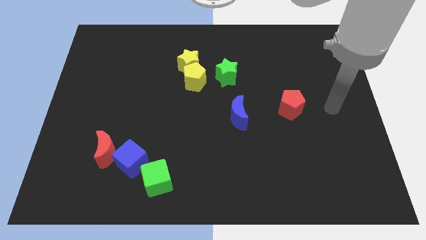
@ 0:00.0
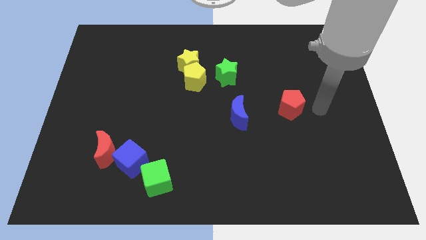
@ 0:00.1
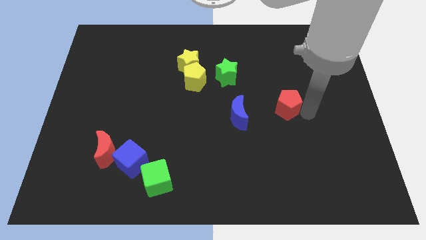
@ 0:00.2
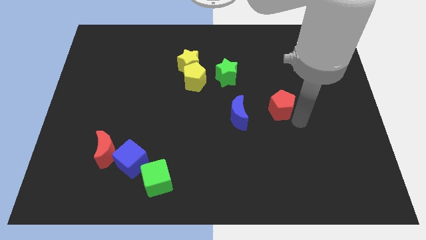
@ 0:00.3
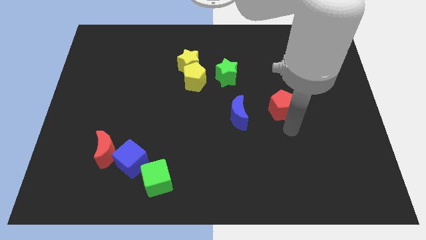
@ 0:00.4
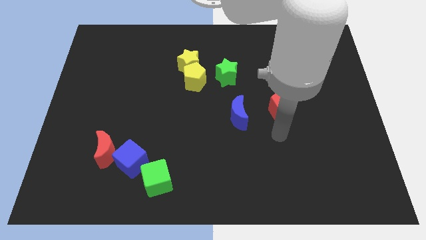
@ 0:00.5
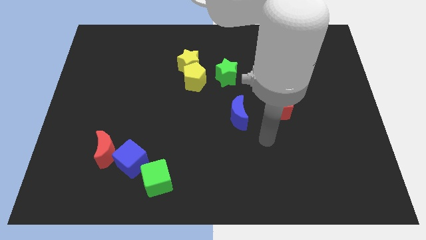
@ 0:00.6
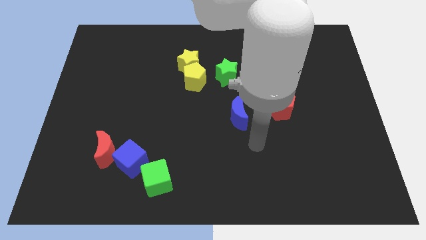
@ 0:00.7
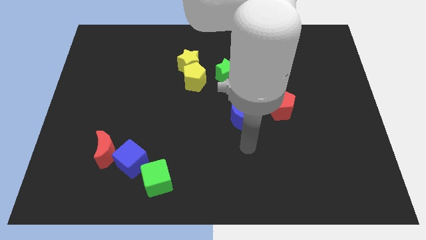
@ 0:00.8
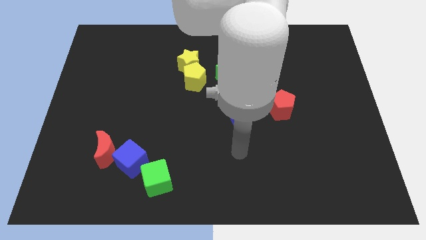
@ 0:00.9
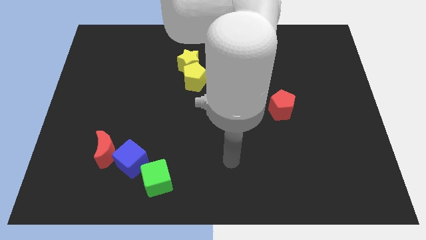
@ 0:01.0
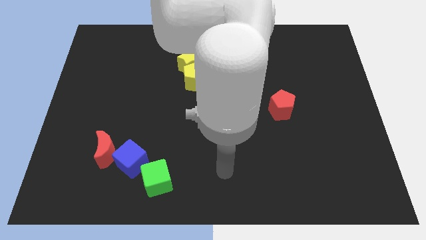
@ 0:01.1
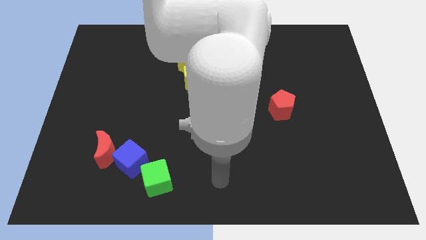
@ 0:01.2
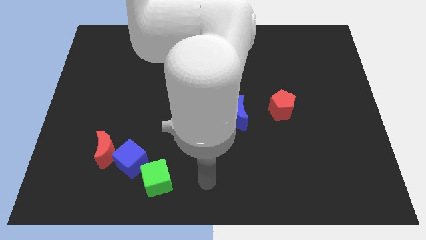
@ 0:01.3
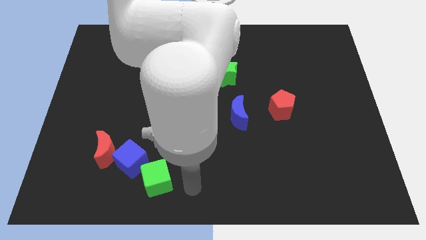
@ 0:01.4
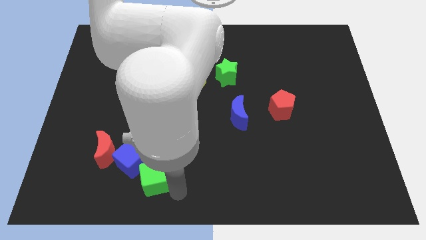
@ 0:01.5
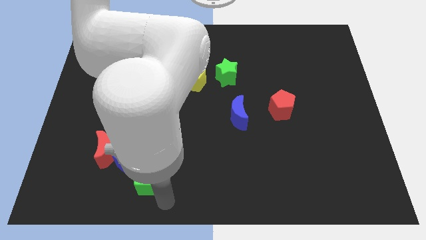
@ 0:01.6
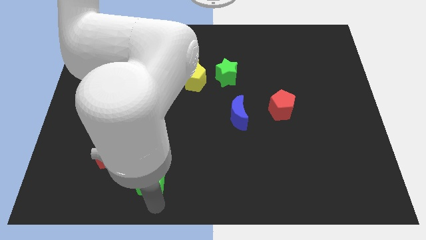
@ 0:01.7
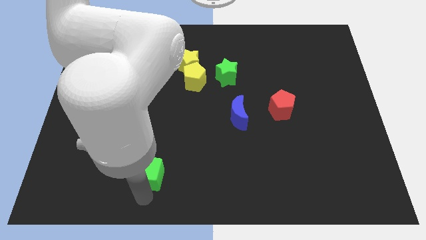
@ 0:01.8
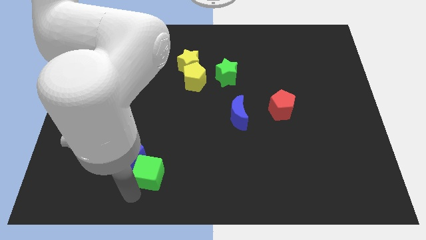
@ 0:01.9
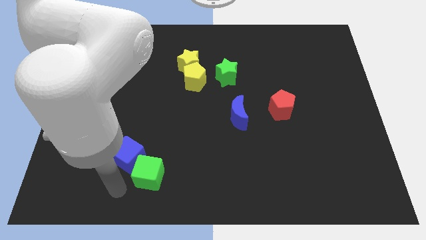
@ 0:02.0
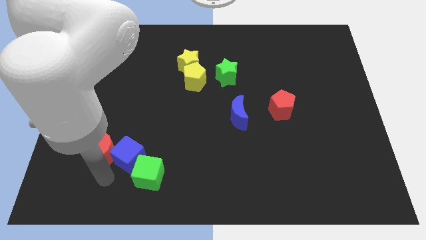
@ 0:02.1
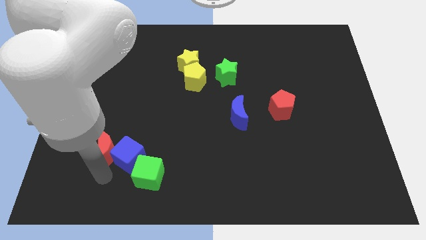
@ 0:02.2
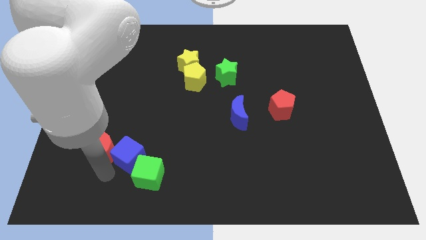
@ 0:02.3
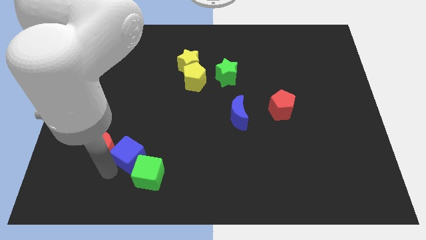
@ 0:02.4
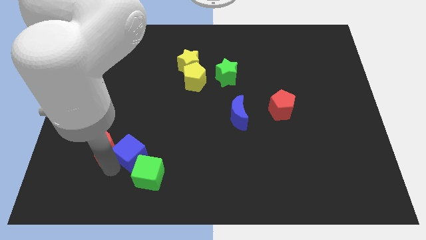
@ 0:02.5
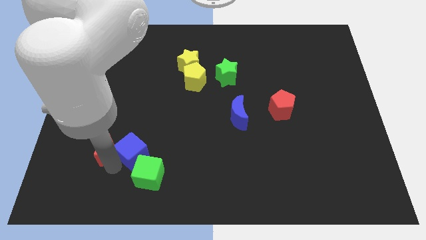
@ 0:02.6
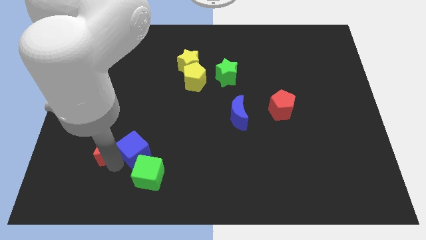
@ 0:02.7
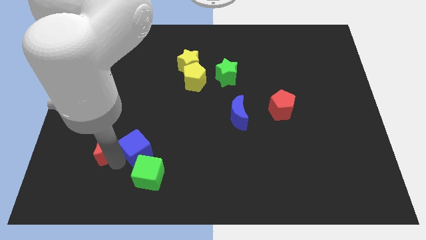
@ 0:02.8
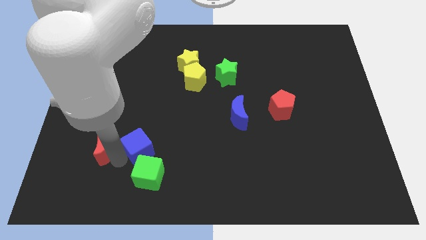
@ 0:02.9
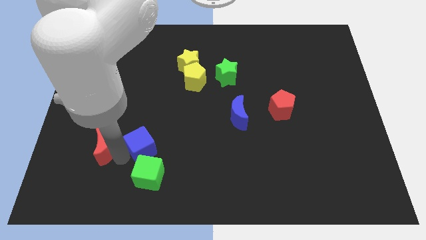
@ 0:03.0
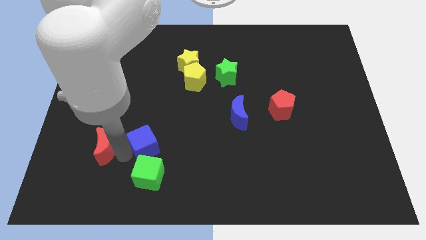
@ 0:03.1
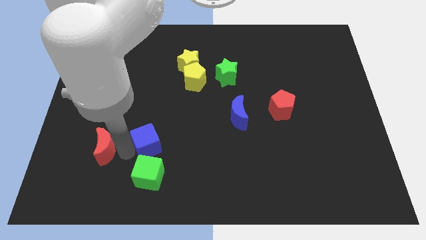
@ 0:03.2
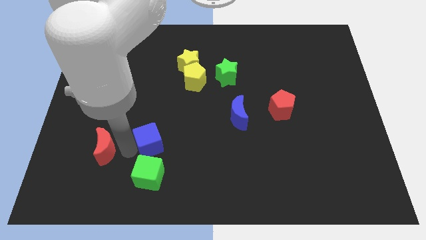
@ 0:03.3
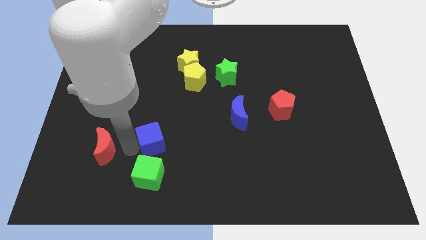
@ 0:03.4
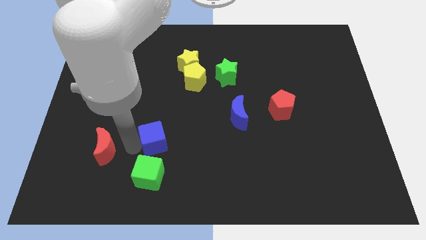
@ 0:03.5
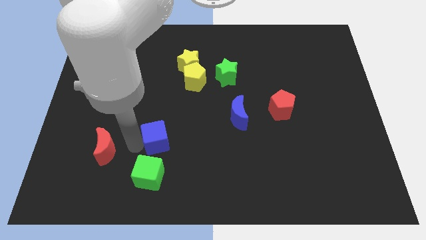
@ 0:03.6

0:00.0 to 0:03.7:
slightly move the blue cube upwards and then right

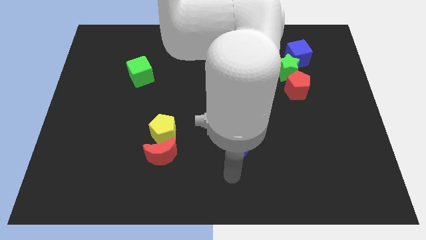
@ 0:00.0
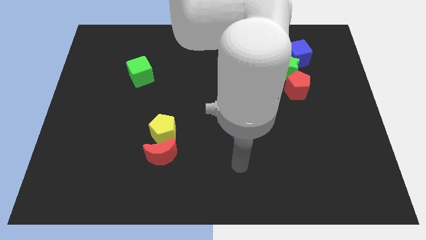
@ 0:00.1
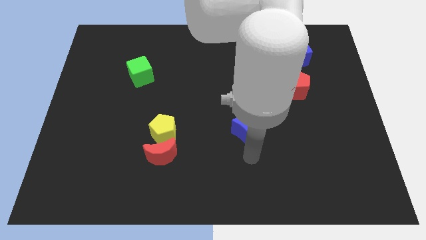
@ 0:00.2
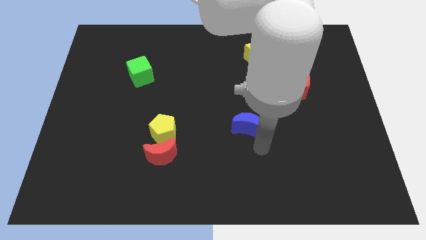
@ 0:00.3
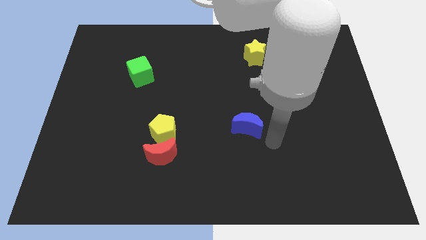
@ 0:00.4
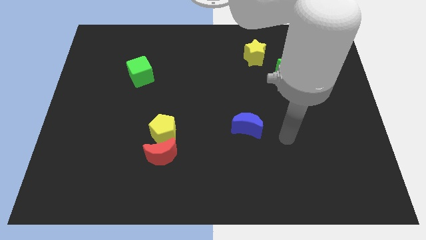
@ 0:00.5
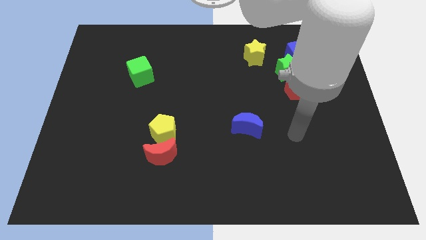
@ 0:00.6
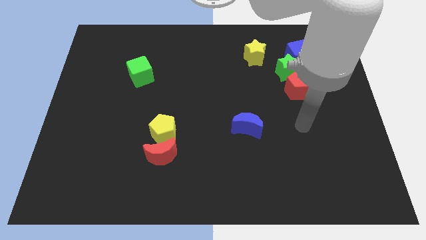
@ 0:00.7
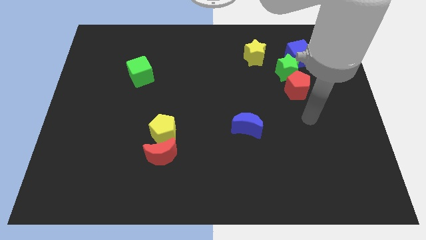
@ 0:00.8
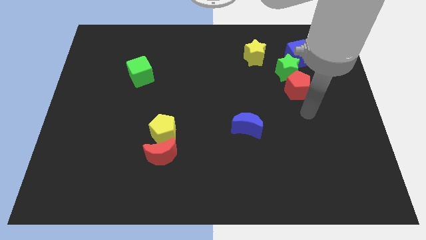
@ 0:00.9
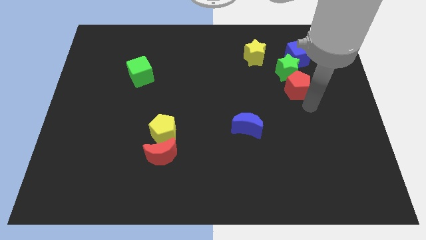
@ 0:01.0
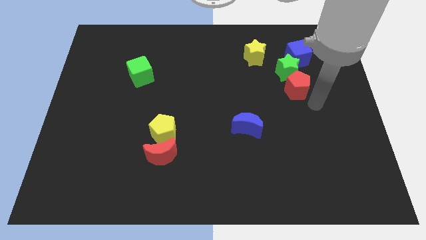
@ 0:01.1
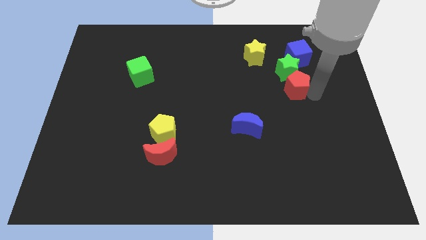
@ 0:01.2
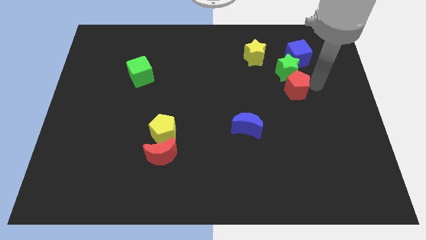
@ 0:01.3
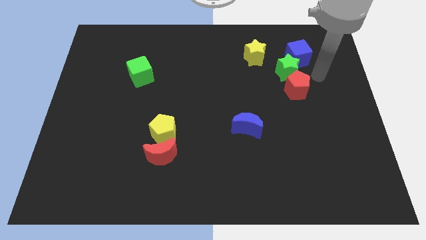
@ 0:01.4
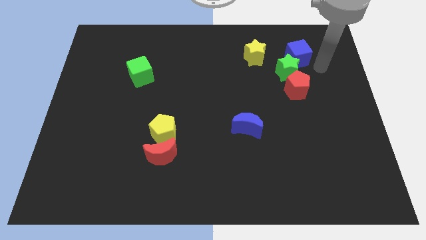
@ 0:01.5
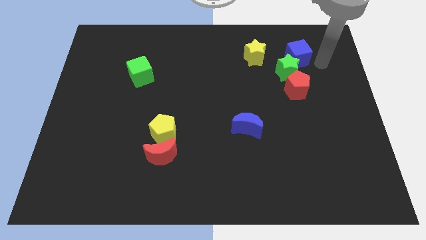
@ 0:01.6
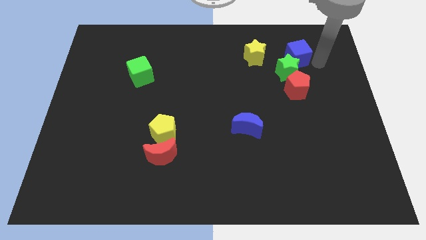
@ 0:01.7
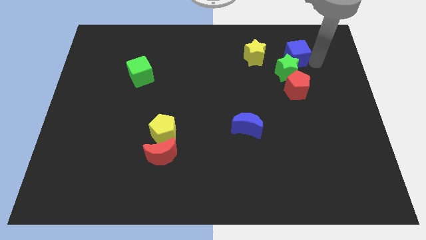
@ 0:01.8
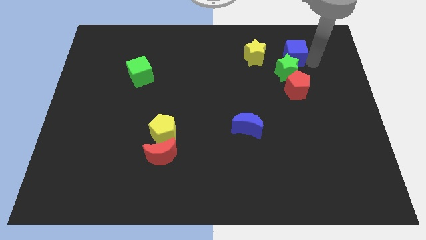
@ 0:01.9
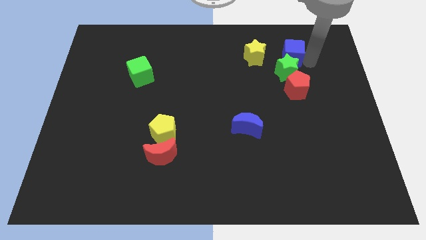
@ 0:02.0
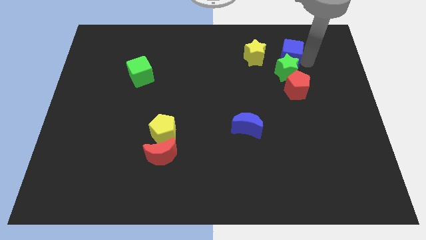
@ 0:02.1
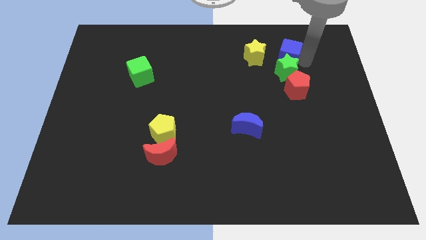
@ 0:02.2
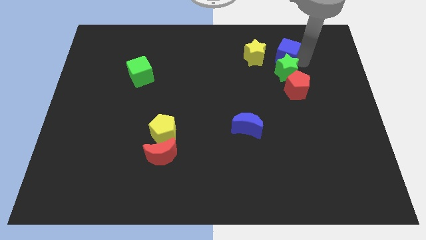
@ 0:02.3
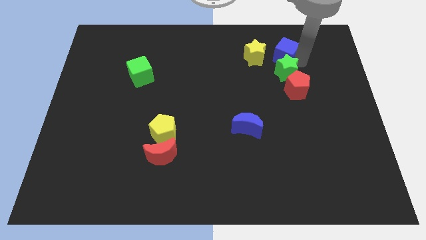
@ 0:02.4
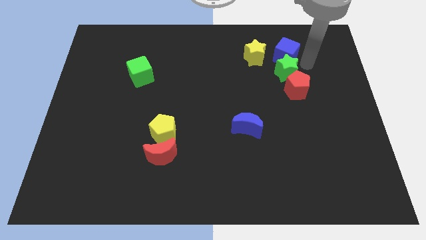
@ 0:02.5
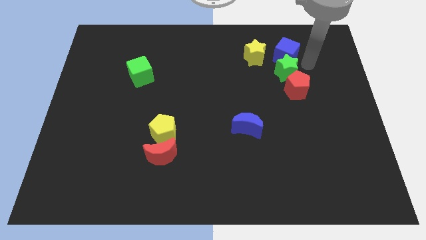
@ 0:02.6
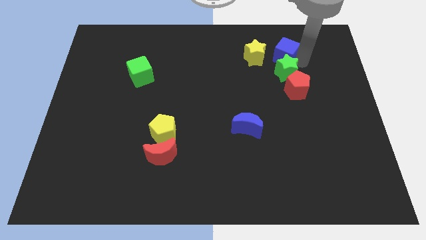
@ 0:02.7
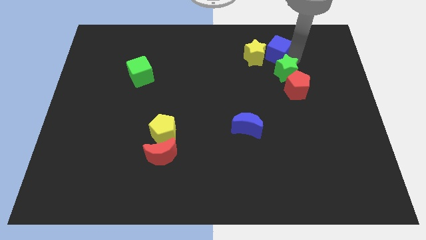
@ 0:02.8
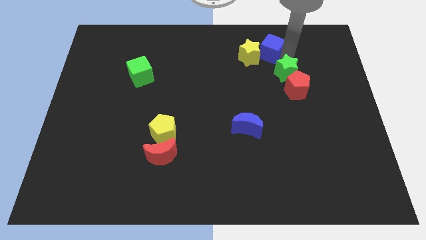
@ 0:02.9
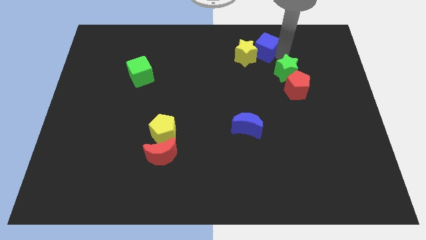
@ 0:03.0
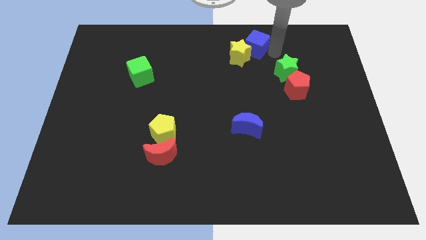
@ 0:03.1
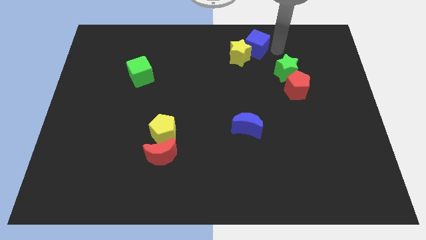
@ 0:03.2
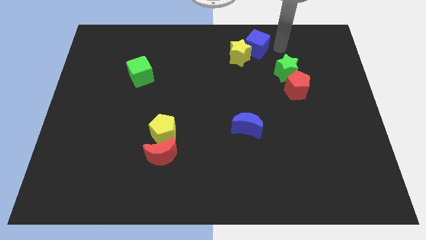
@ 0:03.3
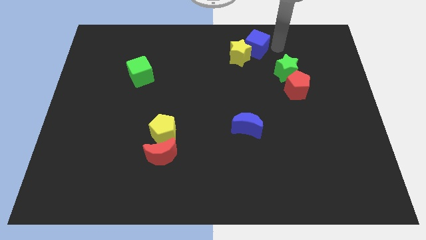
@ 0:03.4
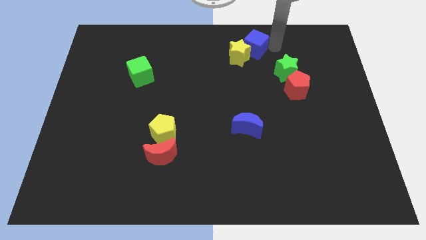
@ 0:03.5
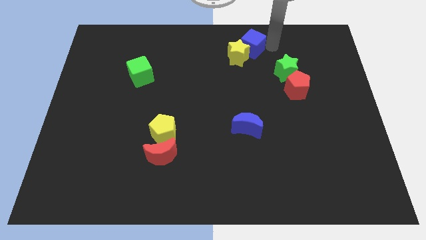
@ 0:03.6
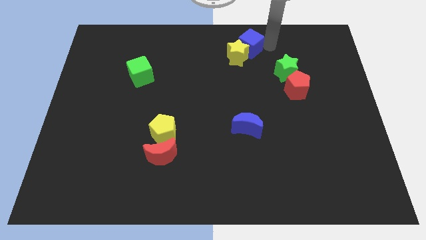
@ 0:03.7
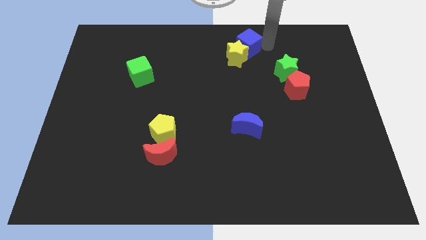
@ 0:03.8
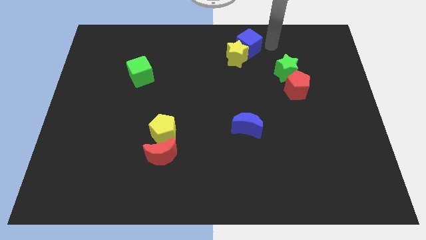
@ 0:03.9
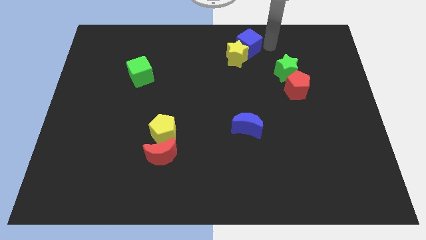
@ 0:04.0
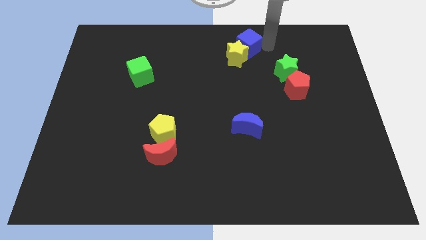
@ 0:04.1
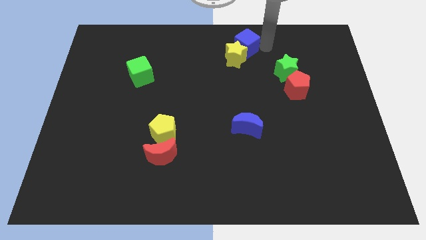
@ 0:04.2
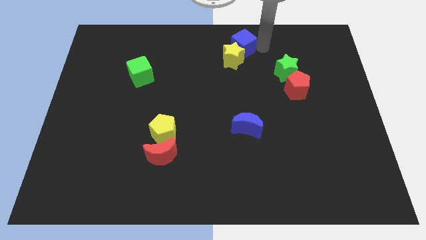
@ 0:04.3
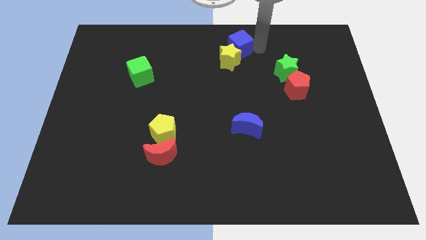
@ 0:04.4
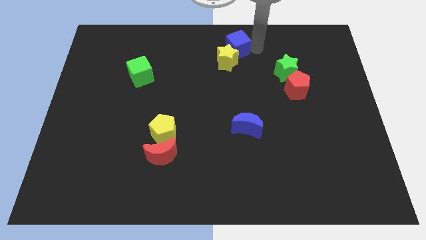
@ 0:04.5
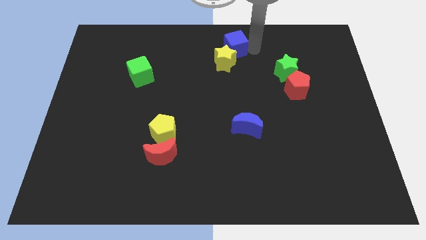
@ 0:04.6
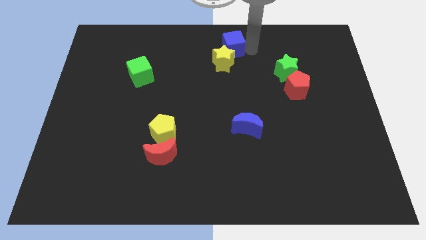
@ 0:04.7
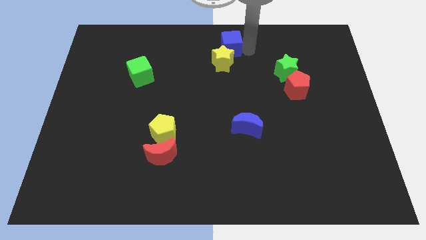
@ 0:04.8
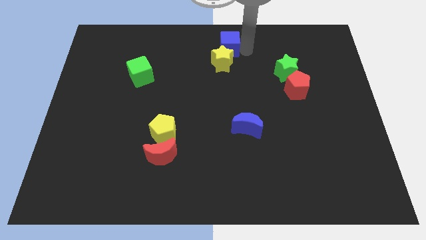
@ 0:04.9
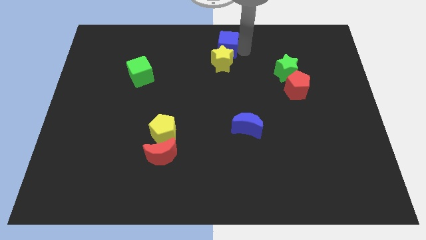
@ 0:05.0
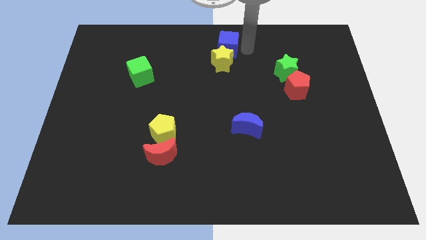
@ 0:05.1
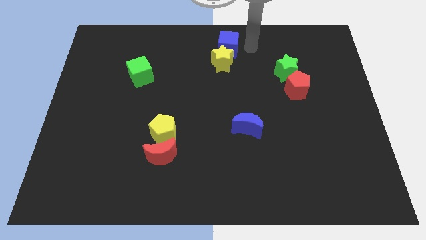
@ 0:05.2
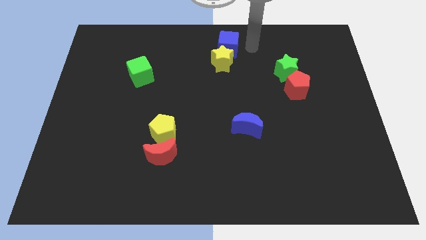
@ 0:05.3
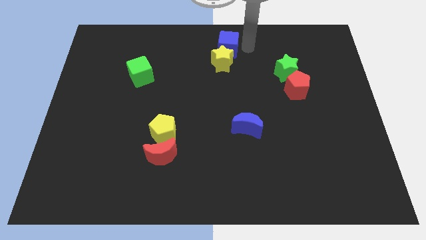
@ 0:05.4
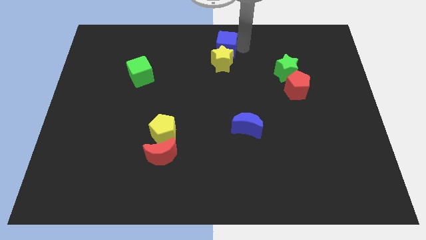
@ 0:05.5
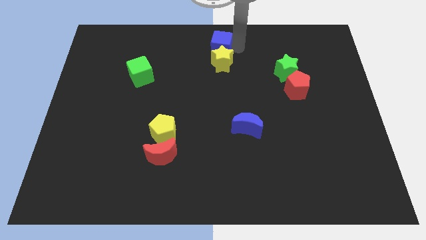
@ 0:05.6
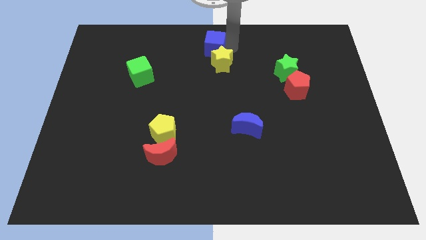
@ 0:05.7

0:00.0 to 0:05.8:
slide the blue cube to the left
